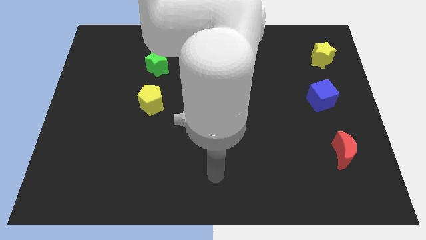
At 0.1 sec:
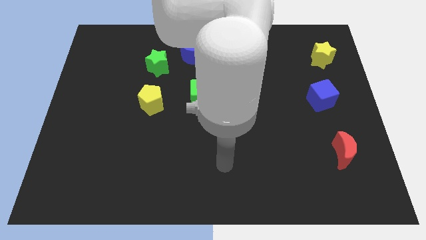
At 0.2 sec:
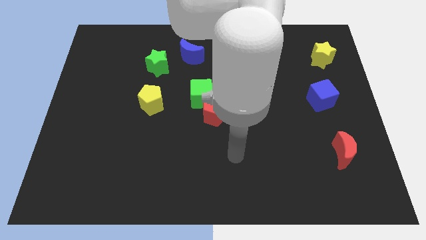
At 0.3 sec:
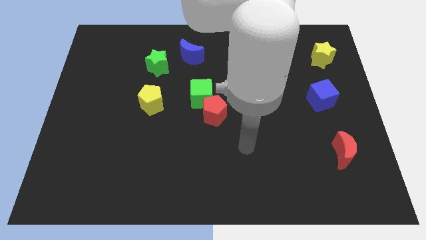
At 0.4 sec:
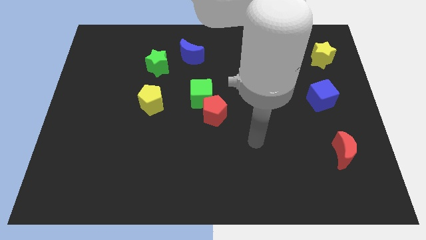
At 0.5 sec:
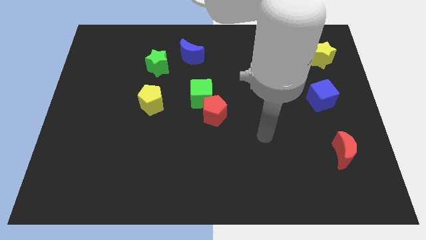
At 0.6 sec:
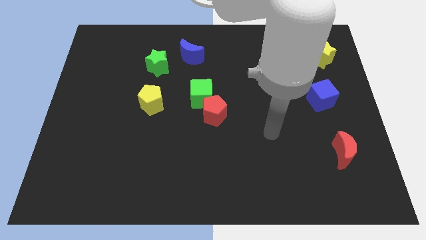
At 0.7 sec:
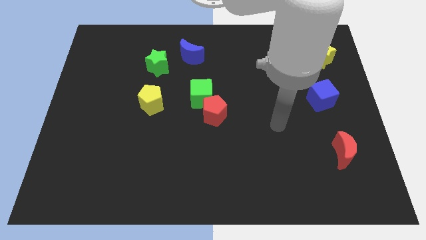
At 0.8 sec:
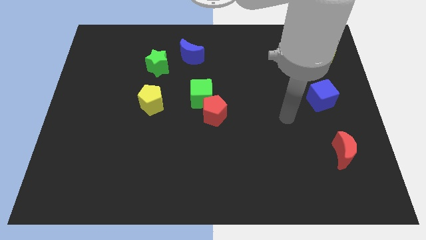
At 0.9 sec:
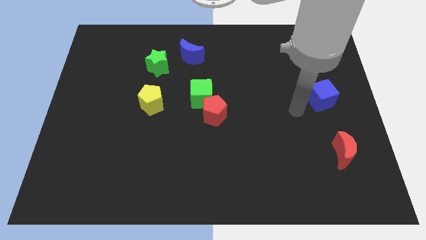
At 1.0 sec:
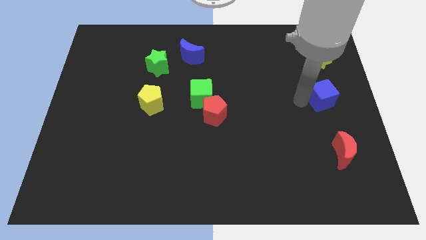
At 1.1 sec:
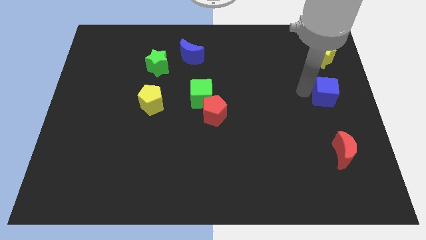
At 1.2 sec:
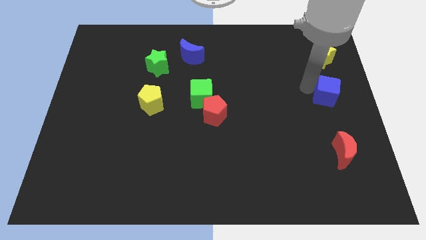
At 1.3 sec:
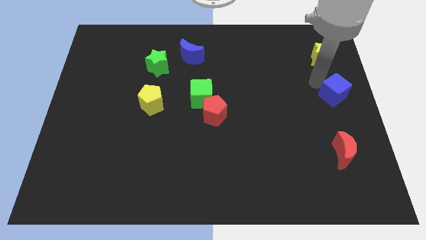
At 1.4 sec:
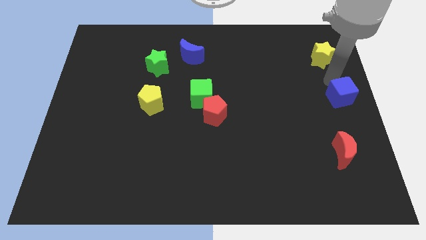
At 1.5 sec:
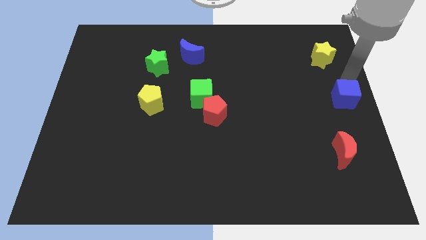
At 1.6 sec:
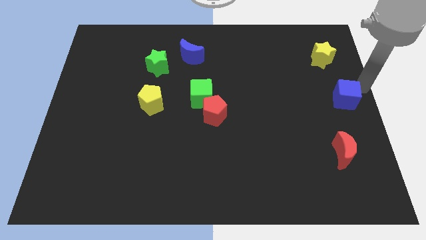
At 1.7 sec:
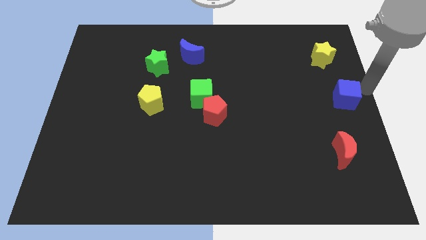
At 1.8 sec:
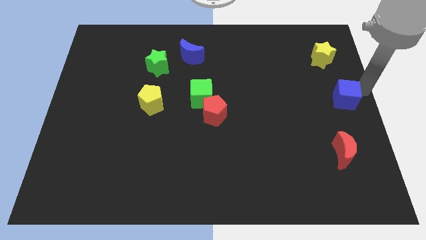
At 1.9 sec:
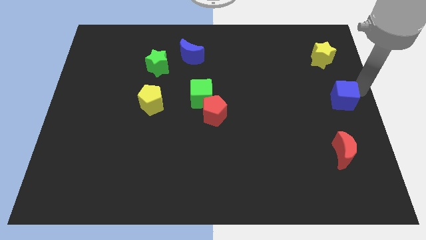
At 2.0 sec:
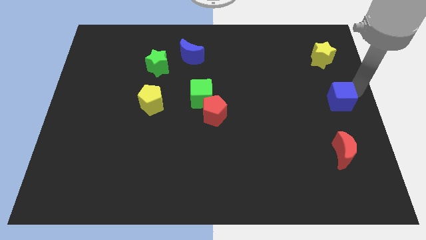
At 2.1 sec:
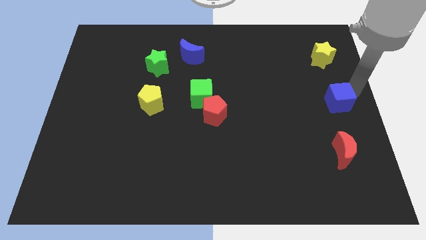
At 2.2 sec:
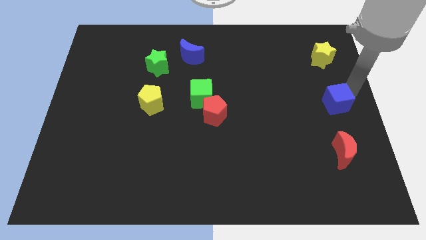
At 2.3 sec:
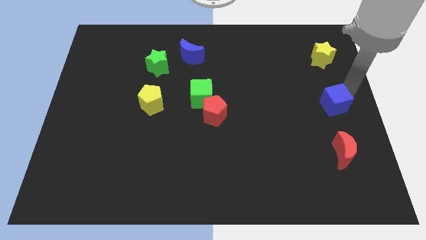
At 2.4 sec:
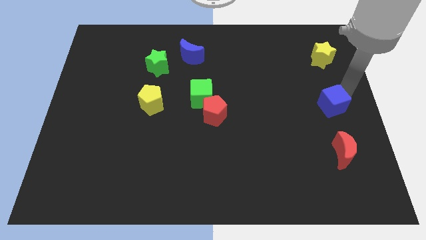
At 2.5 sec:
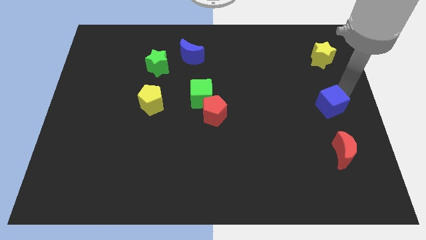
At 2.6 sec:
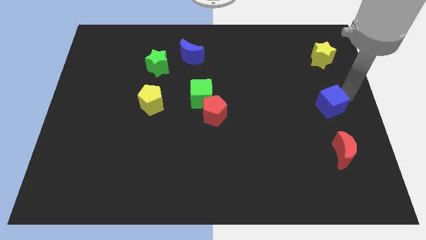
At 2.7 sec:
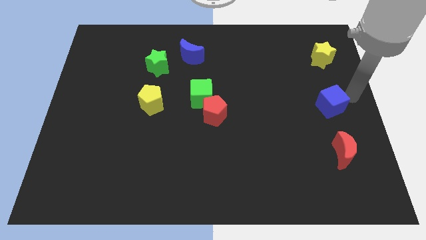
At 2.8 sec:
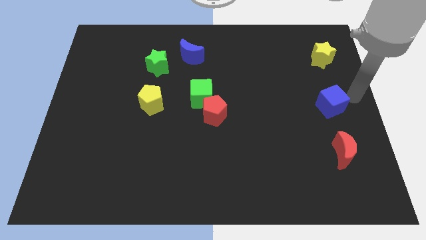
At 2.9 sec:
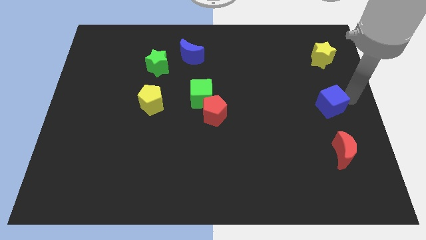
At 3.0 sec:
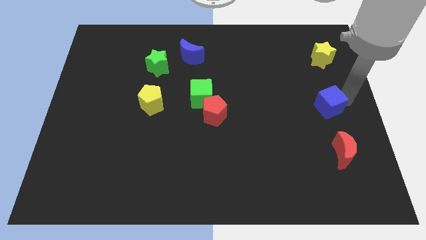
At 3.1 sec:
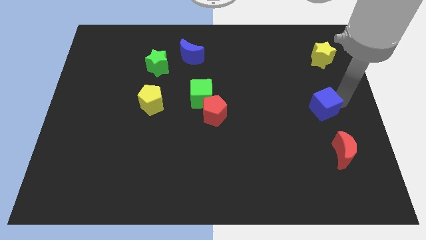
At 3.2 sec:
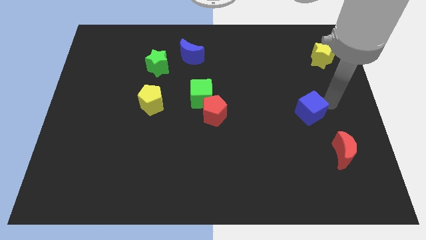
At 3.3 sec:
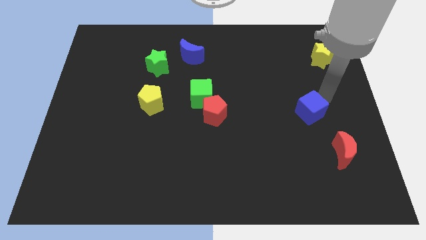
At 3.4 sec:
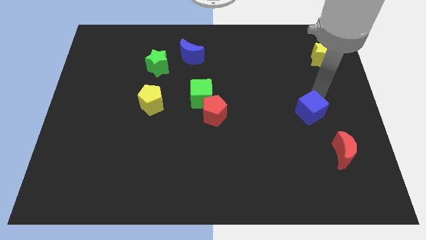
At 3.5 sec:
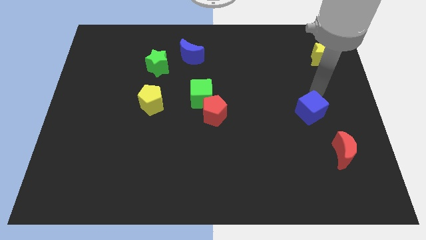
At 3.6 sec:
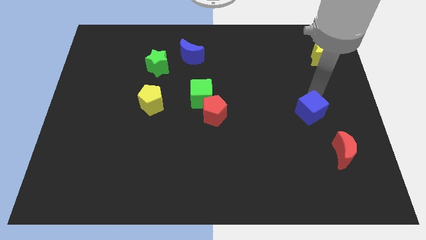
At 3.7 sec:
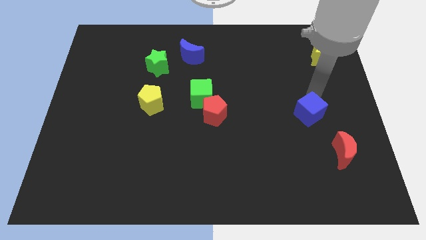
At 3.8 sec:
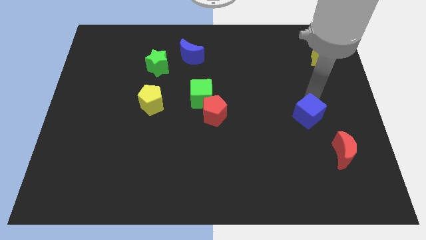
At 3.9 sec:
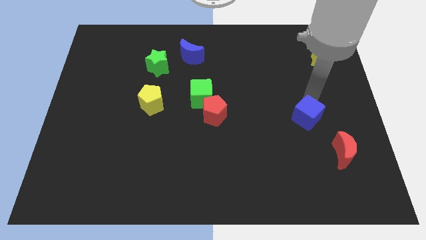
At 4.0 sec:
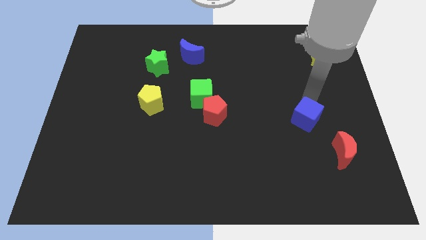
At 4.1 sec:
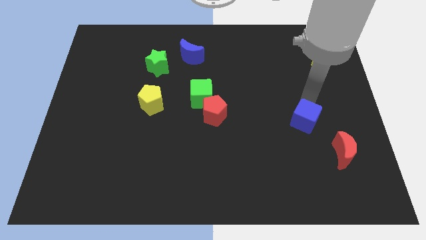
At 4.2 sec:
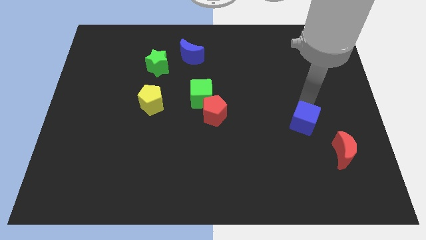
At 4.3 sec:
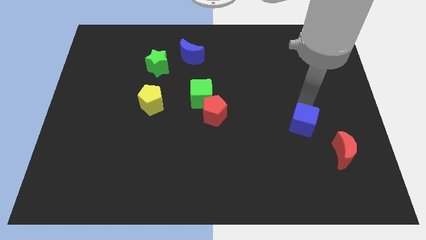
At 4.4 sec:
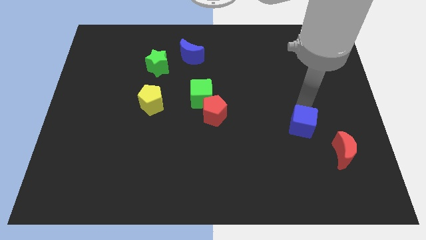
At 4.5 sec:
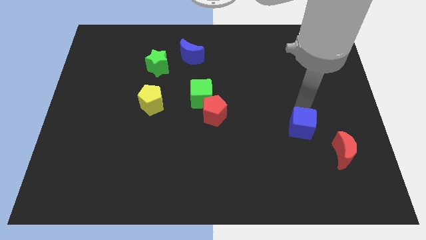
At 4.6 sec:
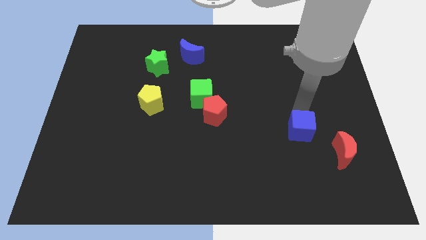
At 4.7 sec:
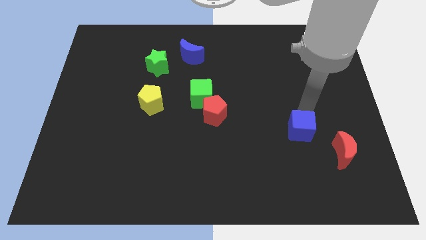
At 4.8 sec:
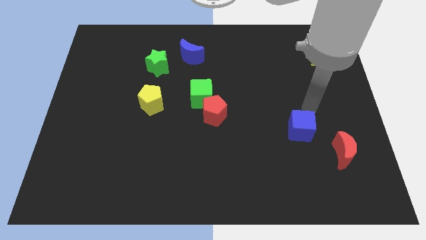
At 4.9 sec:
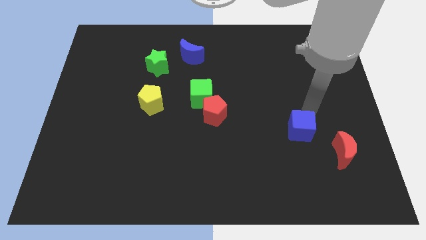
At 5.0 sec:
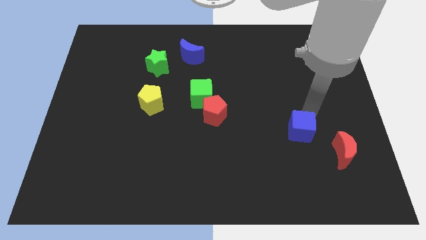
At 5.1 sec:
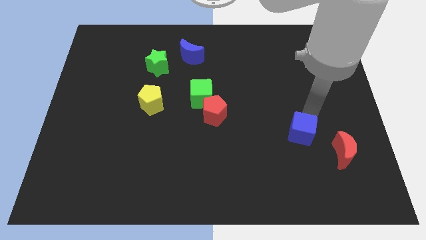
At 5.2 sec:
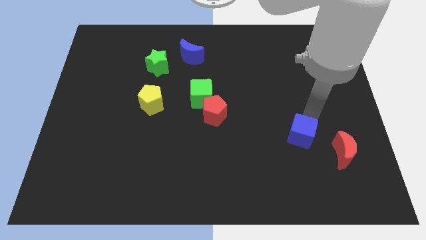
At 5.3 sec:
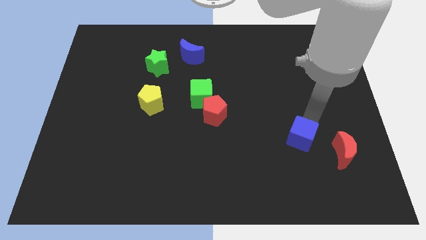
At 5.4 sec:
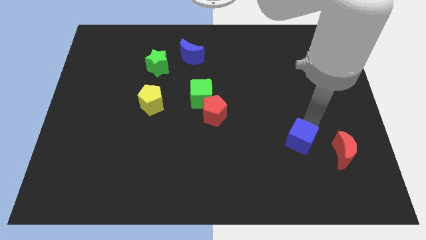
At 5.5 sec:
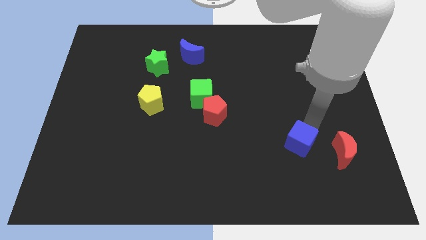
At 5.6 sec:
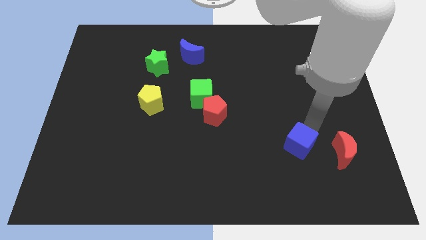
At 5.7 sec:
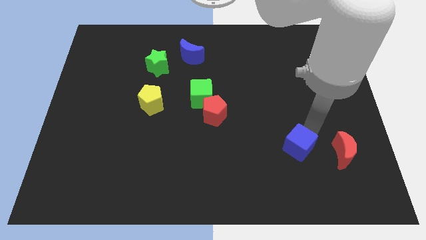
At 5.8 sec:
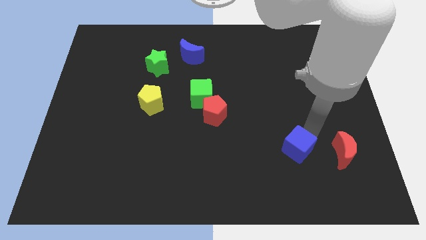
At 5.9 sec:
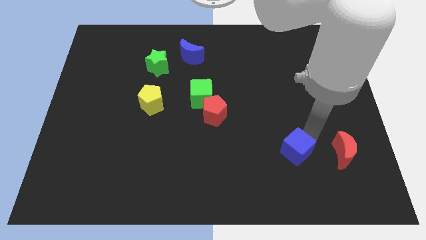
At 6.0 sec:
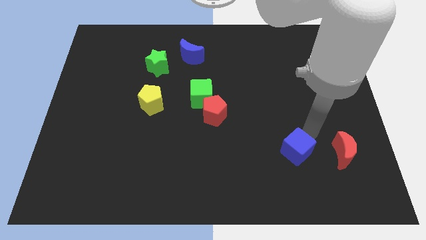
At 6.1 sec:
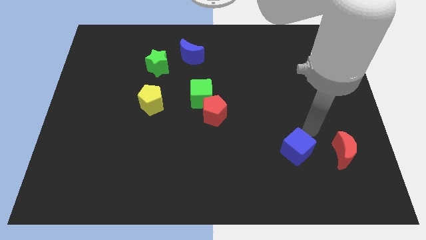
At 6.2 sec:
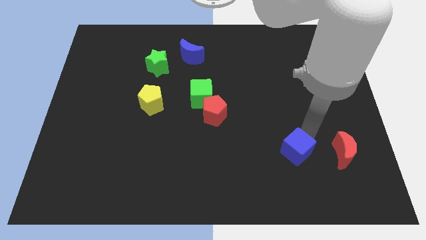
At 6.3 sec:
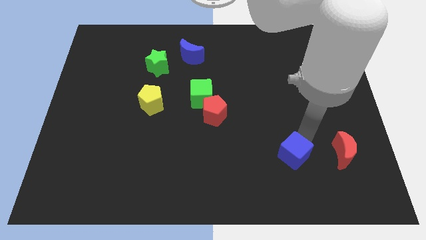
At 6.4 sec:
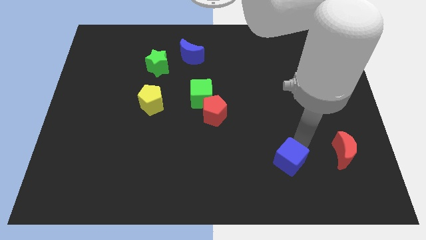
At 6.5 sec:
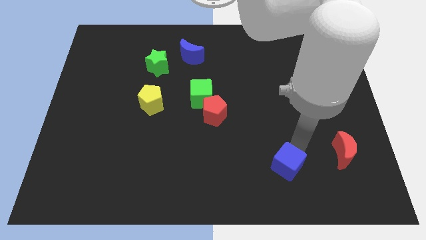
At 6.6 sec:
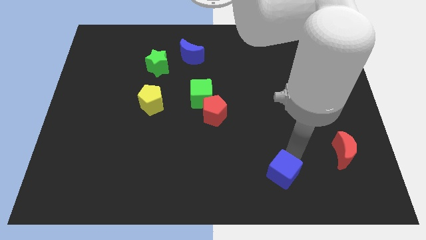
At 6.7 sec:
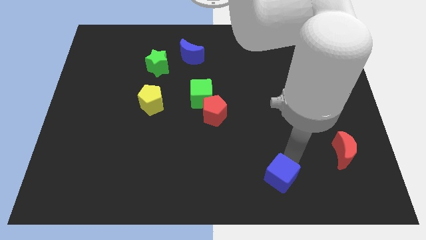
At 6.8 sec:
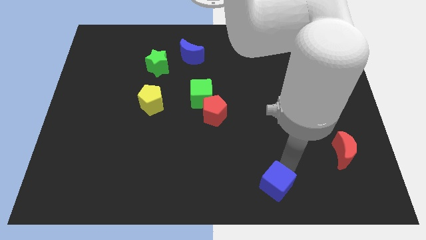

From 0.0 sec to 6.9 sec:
slide the blue cube to the bottom
